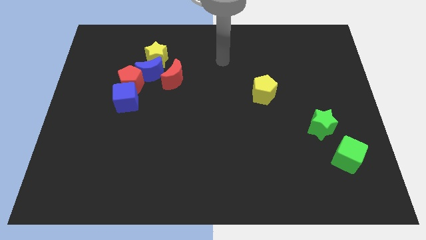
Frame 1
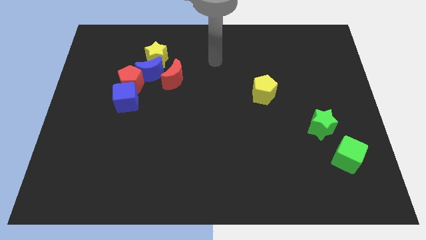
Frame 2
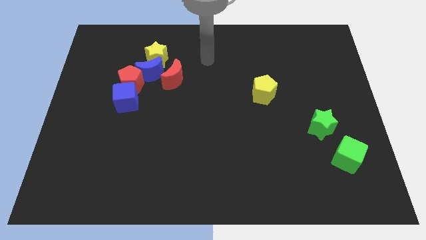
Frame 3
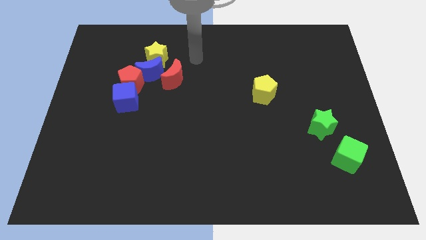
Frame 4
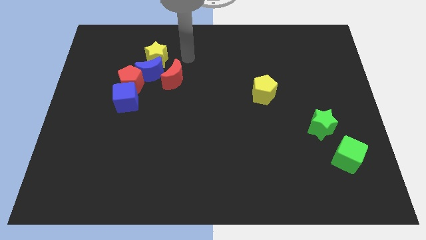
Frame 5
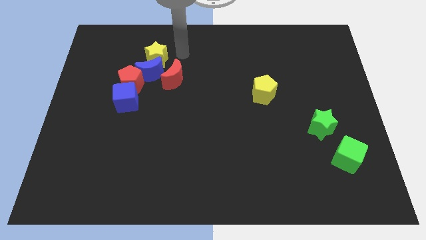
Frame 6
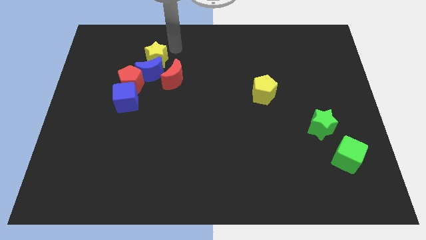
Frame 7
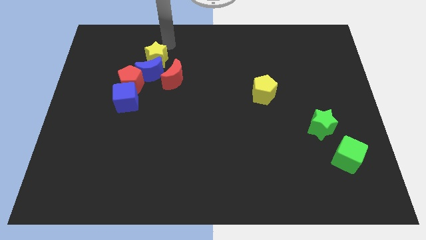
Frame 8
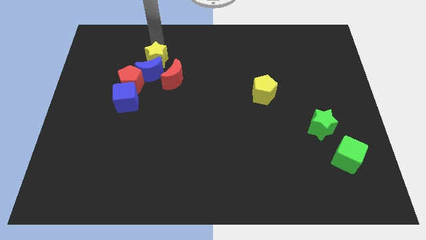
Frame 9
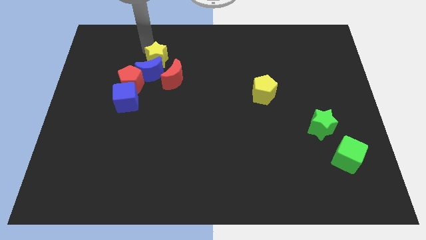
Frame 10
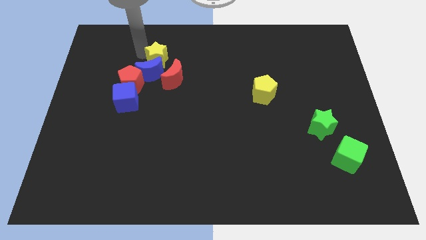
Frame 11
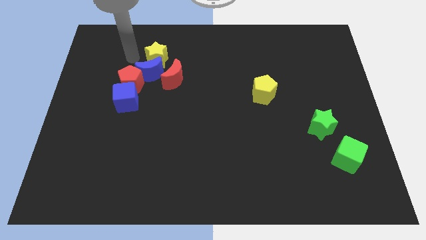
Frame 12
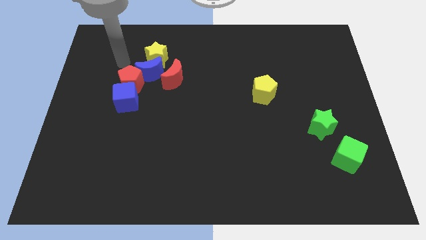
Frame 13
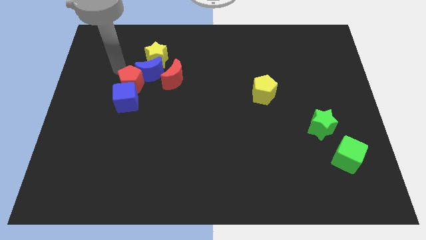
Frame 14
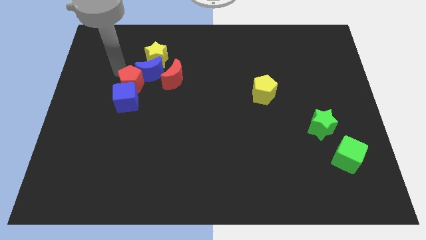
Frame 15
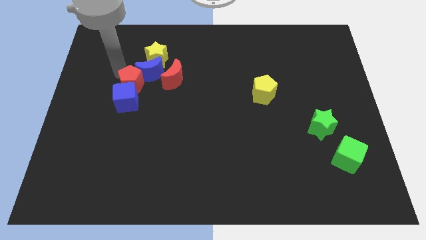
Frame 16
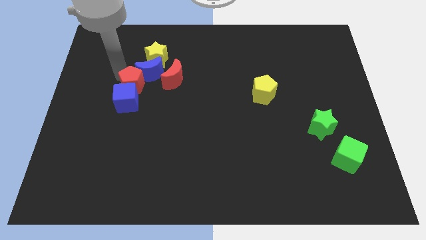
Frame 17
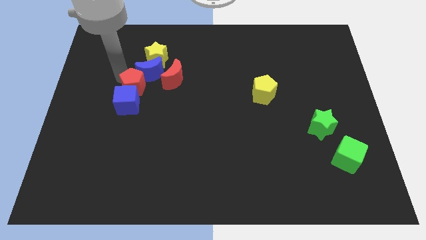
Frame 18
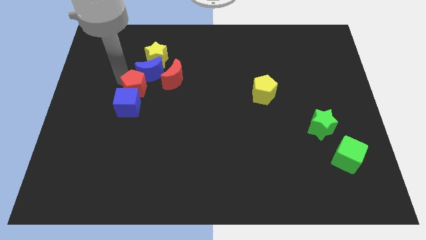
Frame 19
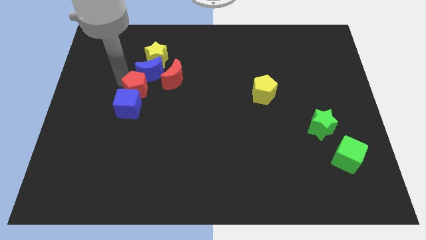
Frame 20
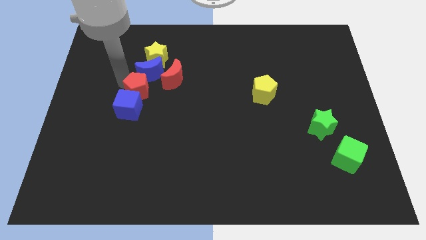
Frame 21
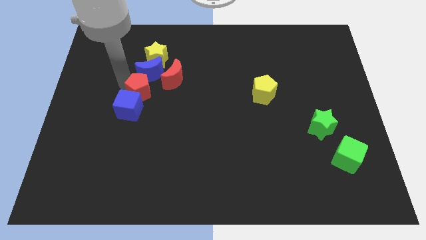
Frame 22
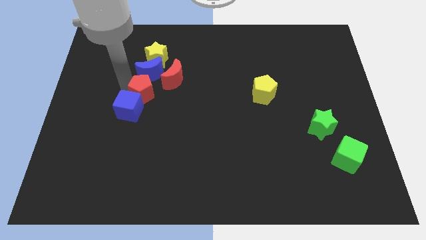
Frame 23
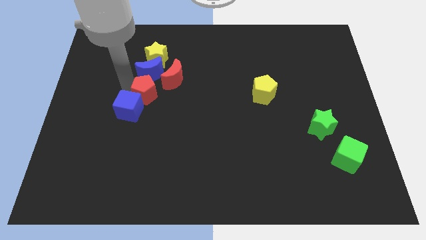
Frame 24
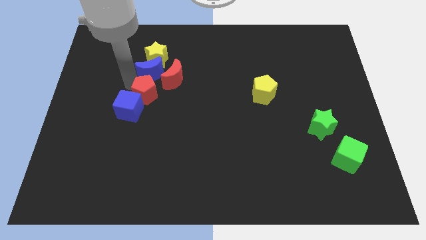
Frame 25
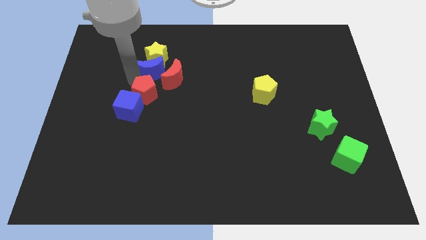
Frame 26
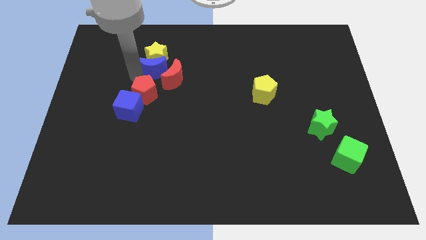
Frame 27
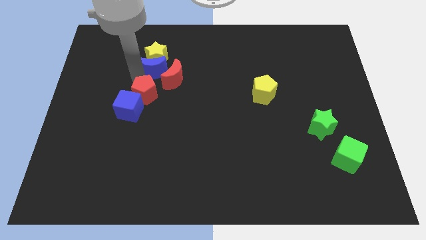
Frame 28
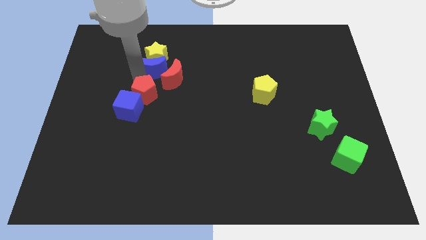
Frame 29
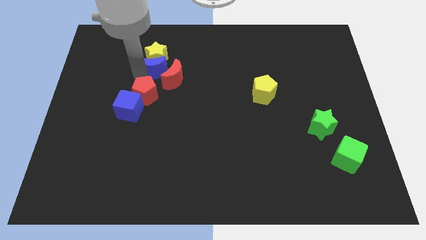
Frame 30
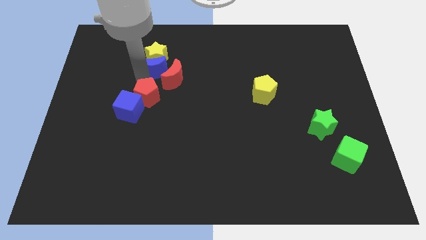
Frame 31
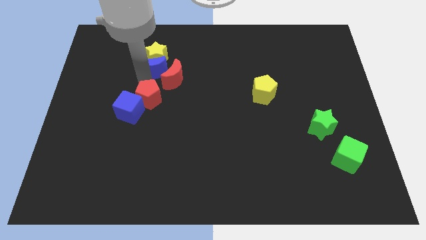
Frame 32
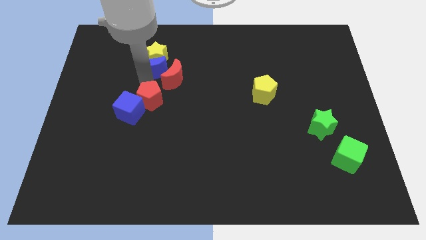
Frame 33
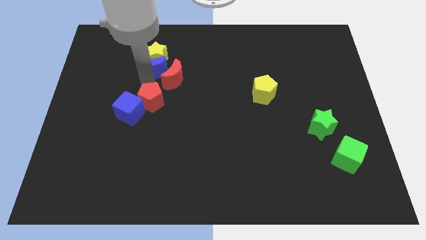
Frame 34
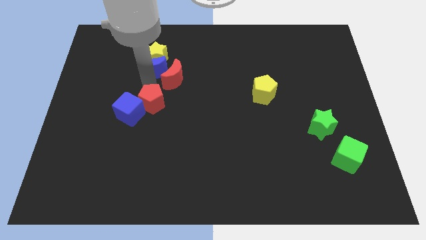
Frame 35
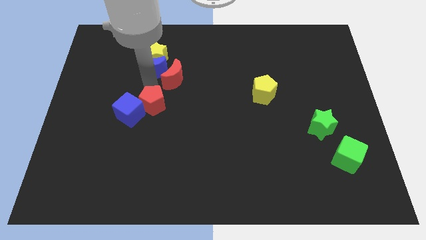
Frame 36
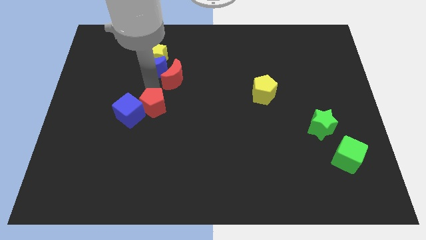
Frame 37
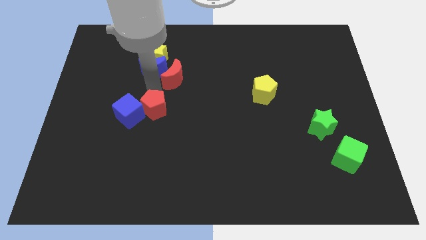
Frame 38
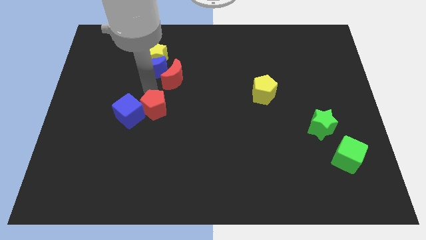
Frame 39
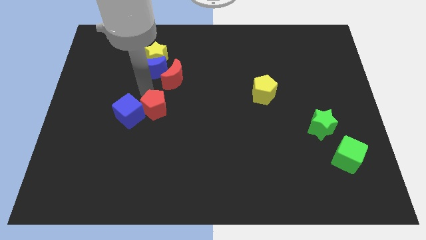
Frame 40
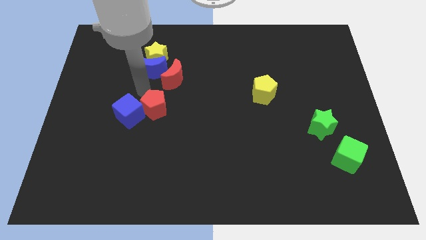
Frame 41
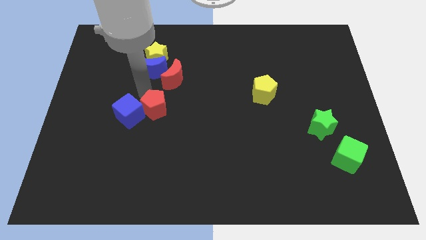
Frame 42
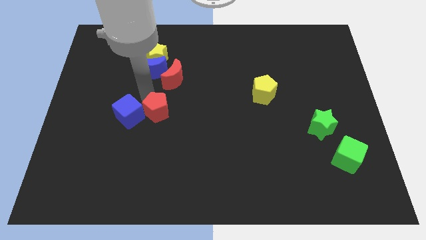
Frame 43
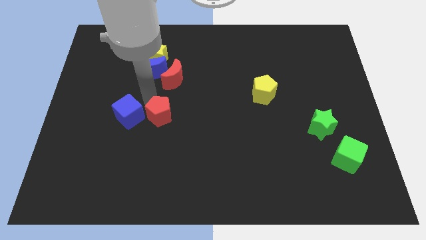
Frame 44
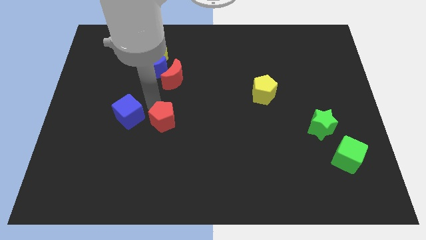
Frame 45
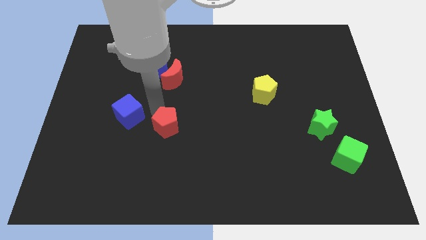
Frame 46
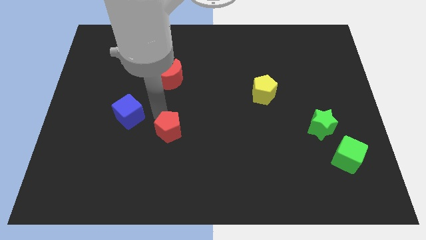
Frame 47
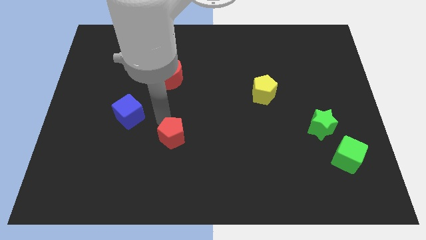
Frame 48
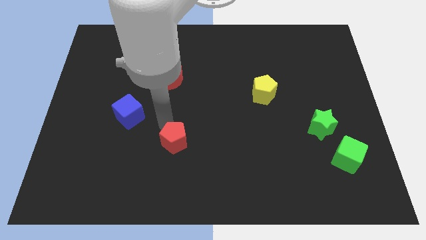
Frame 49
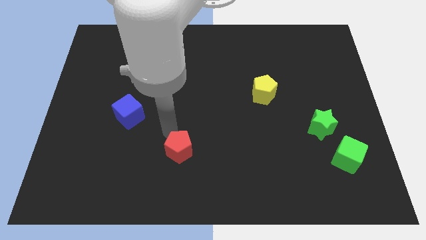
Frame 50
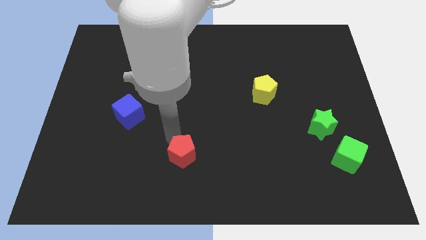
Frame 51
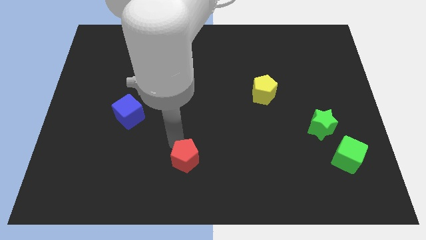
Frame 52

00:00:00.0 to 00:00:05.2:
slide the red pentagon to the bottom
